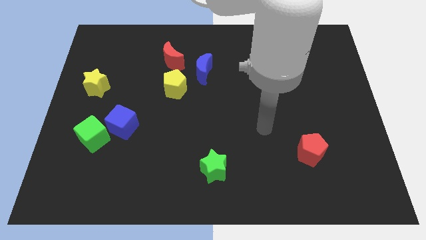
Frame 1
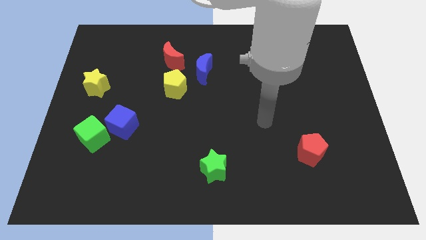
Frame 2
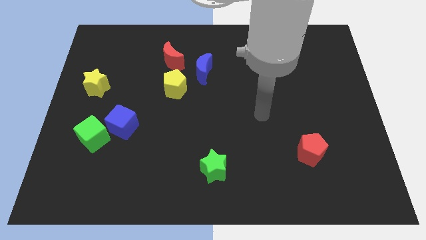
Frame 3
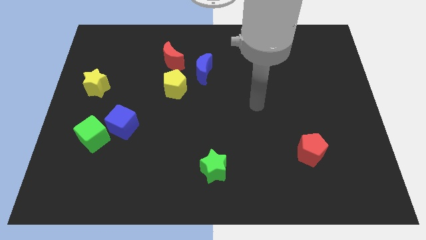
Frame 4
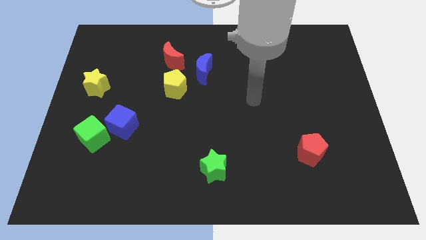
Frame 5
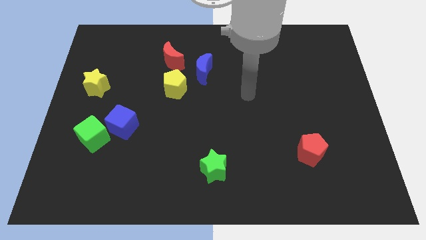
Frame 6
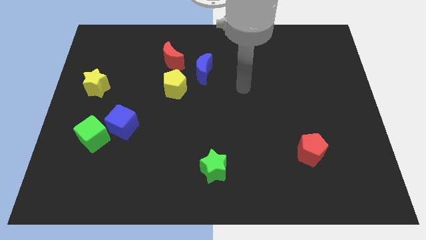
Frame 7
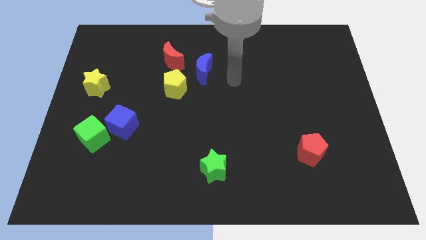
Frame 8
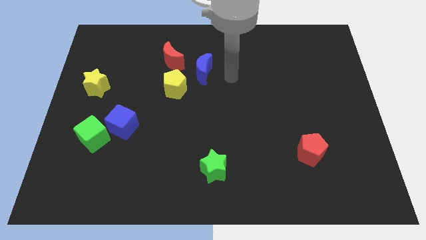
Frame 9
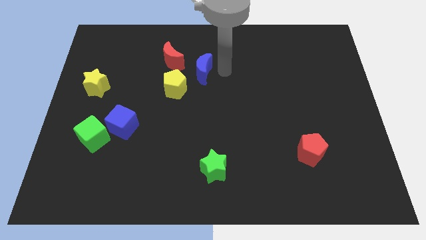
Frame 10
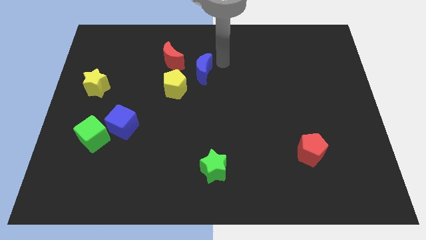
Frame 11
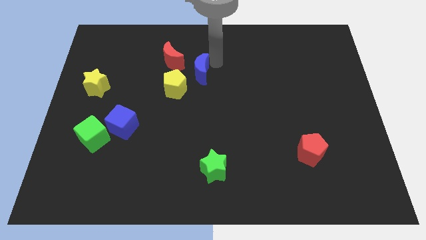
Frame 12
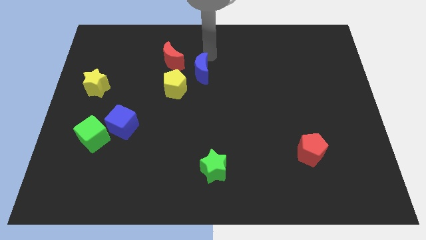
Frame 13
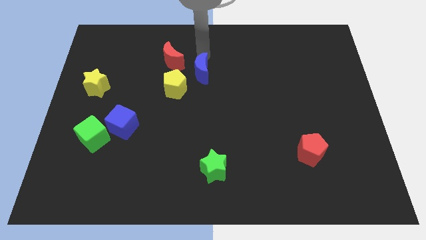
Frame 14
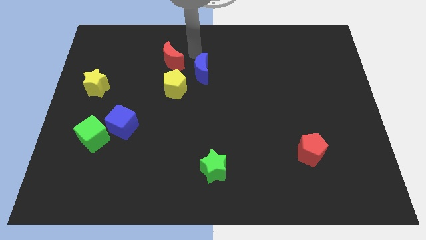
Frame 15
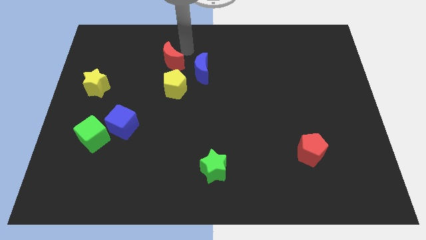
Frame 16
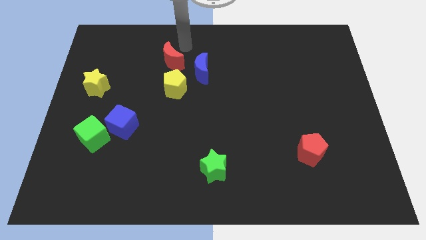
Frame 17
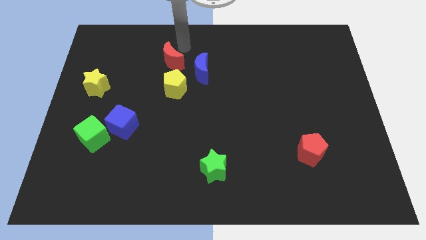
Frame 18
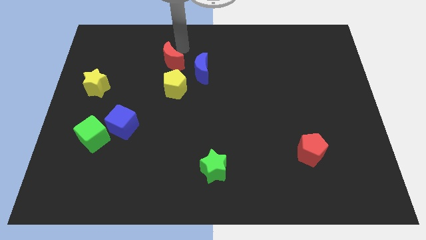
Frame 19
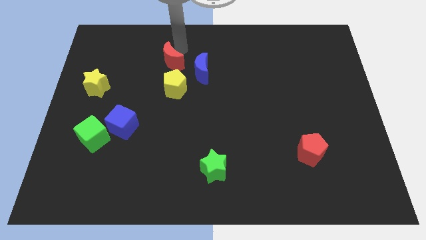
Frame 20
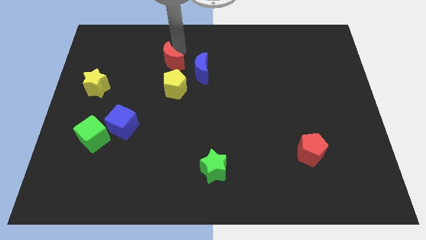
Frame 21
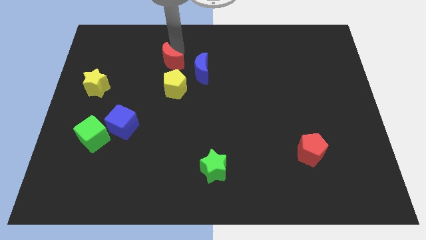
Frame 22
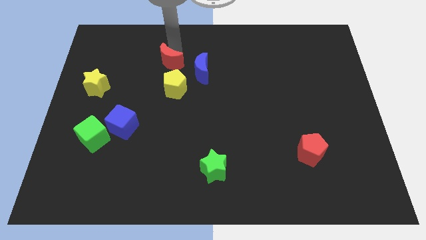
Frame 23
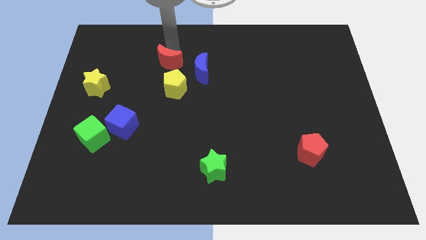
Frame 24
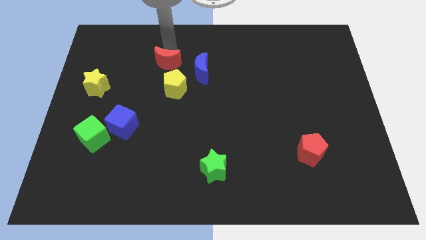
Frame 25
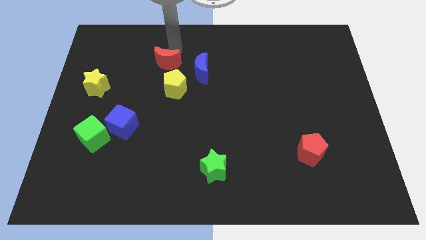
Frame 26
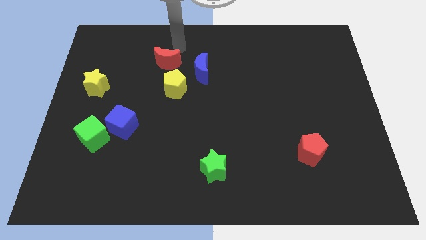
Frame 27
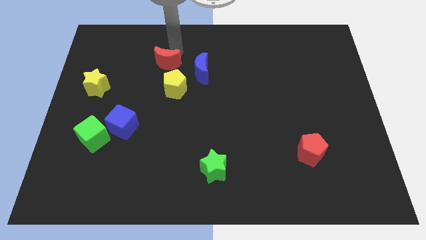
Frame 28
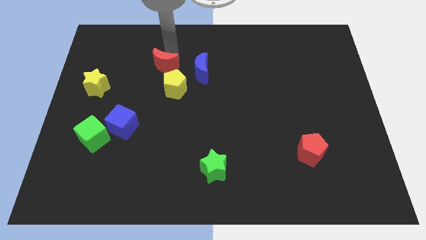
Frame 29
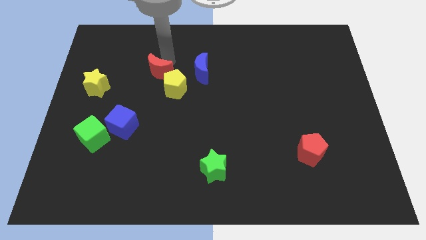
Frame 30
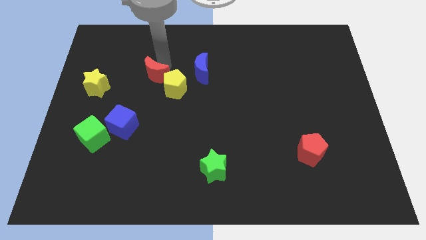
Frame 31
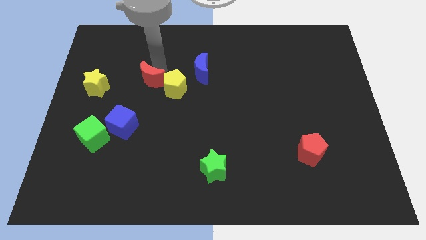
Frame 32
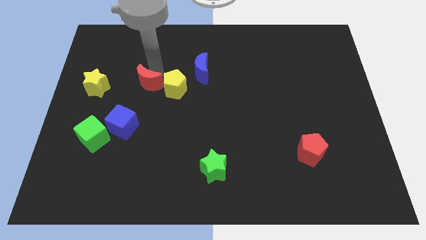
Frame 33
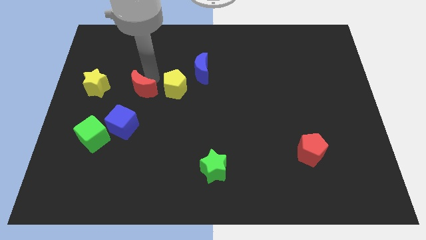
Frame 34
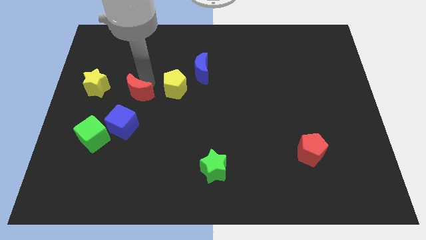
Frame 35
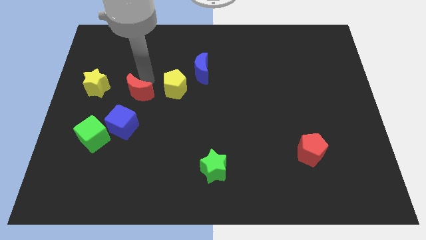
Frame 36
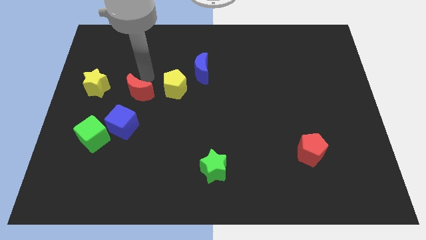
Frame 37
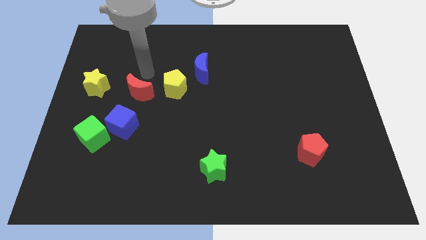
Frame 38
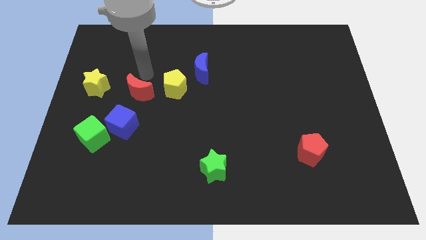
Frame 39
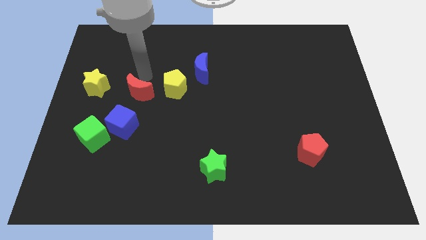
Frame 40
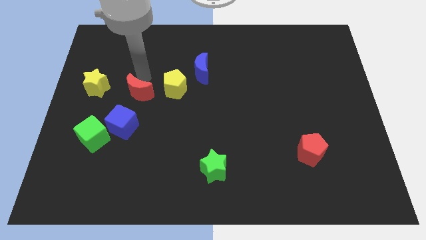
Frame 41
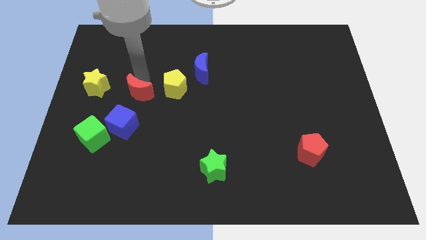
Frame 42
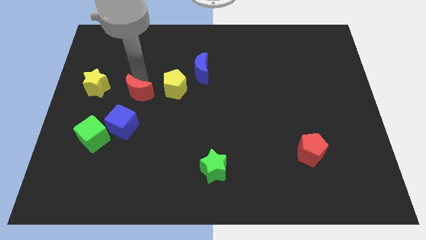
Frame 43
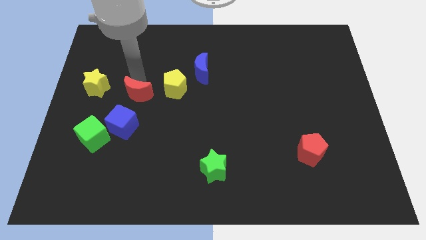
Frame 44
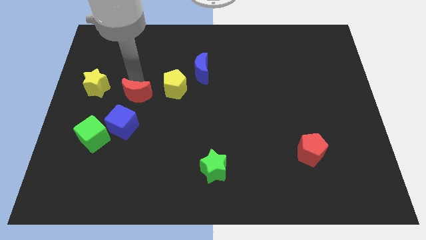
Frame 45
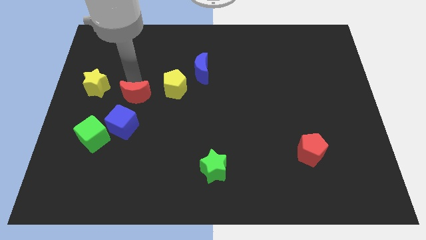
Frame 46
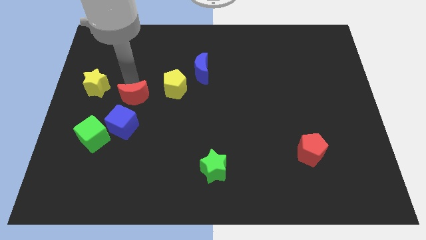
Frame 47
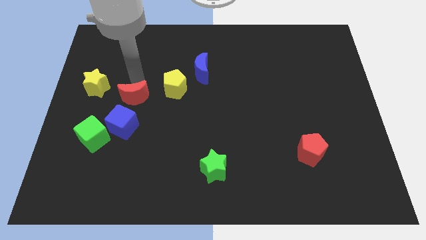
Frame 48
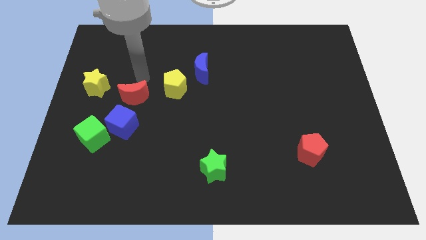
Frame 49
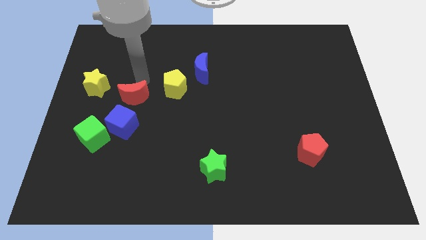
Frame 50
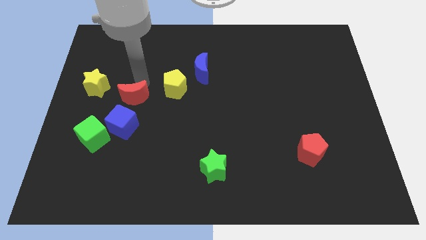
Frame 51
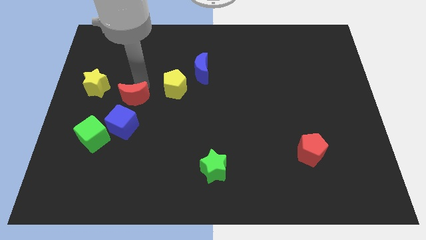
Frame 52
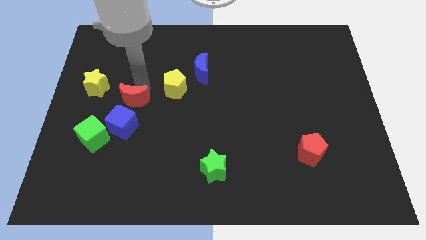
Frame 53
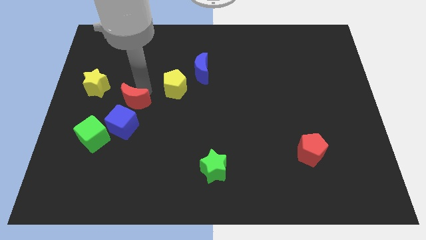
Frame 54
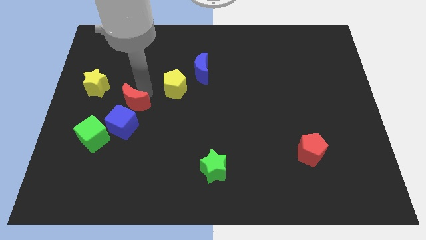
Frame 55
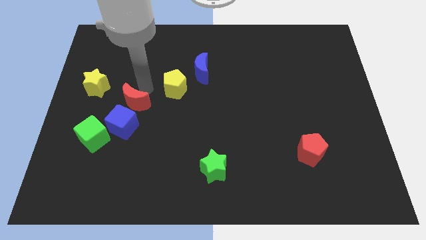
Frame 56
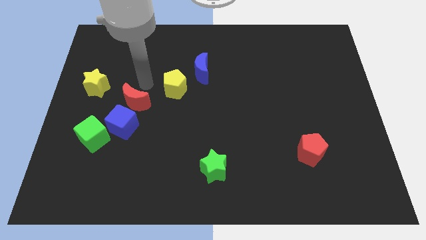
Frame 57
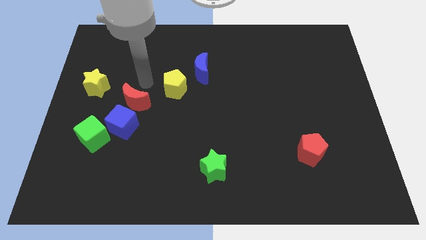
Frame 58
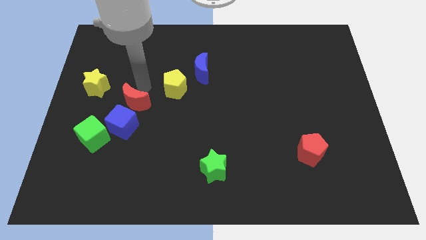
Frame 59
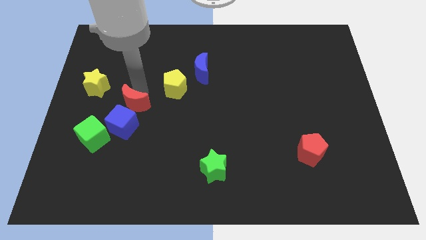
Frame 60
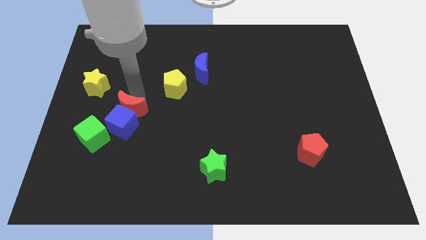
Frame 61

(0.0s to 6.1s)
move the red moon towards the blue cube

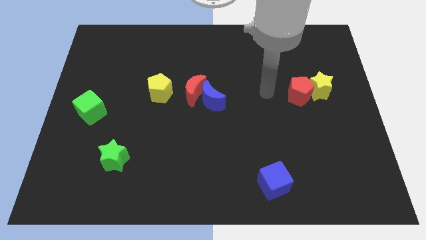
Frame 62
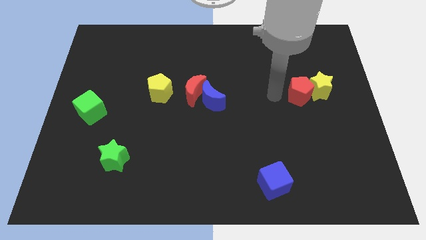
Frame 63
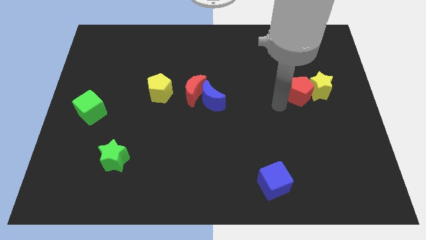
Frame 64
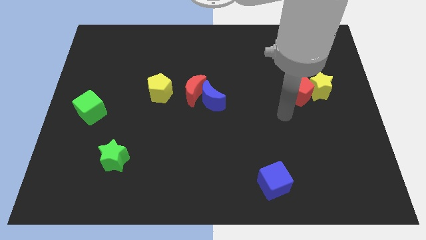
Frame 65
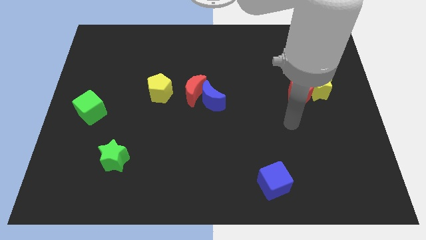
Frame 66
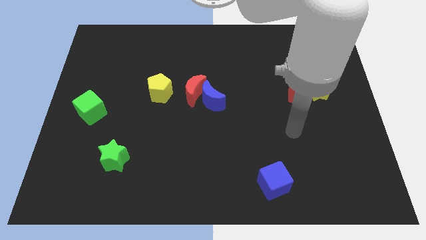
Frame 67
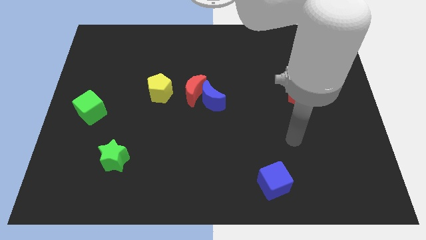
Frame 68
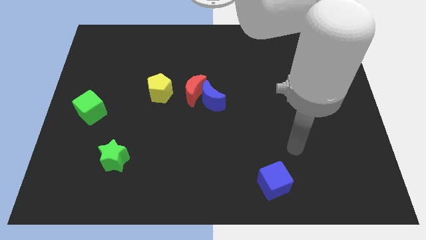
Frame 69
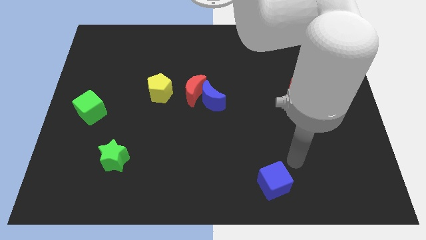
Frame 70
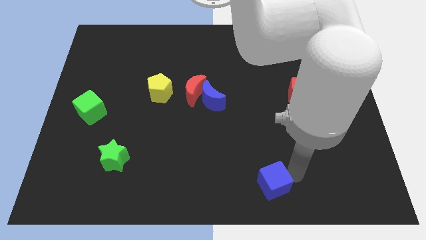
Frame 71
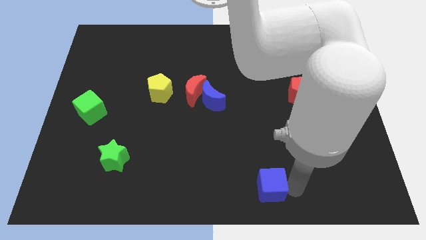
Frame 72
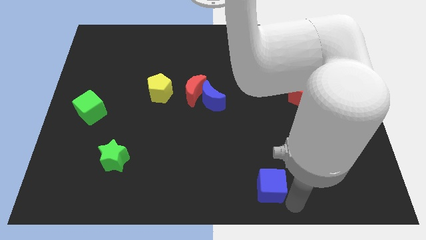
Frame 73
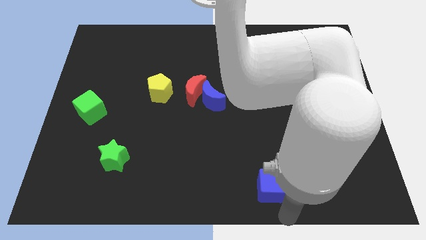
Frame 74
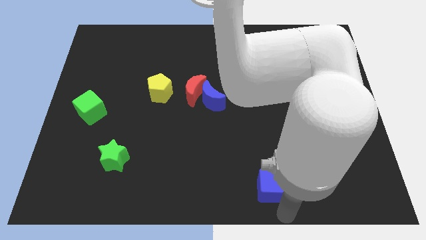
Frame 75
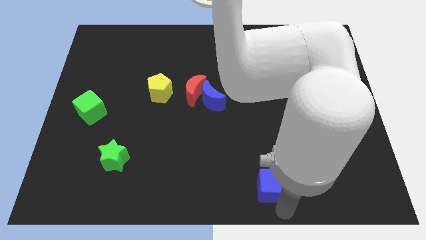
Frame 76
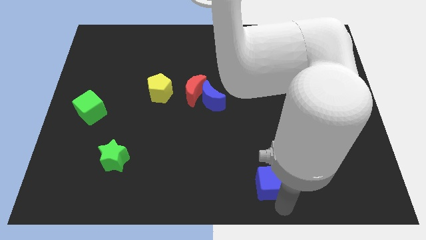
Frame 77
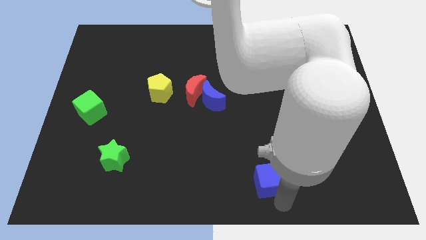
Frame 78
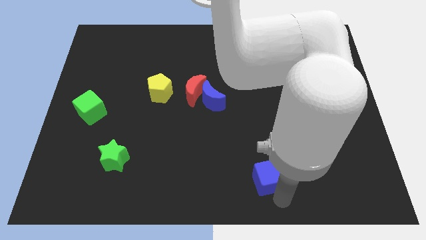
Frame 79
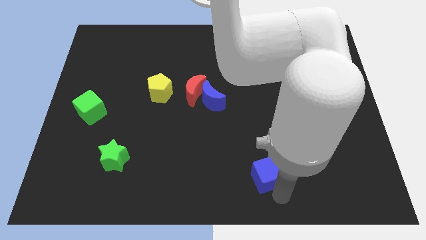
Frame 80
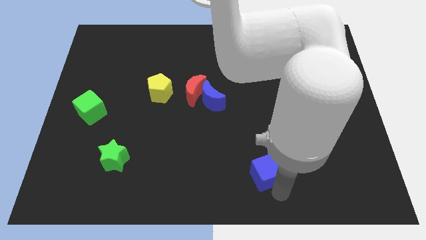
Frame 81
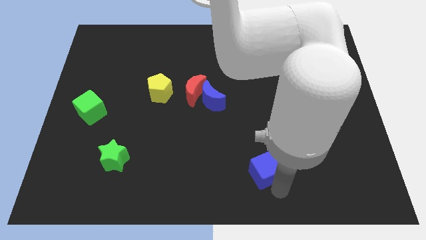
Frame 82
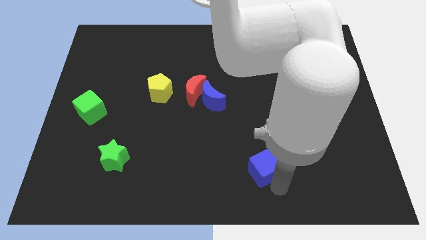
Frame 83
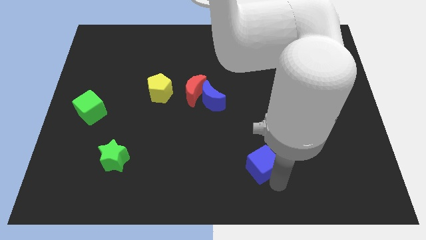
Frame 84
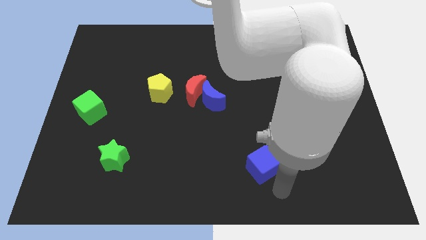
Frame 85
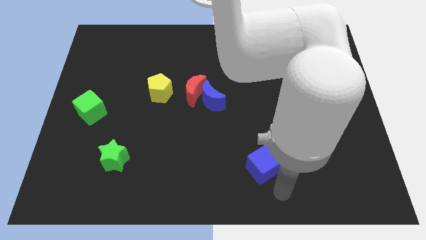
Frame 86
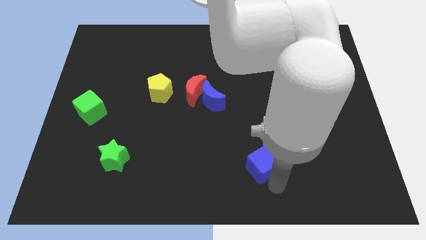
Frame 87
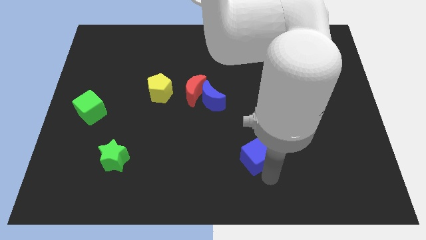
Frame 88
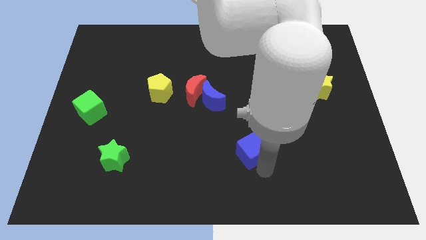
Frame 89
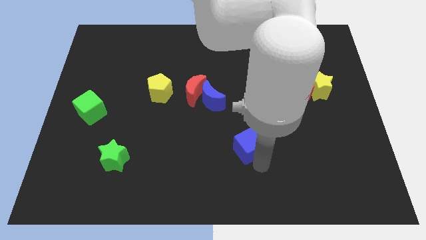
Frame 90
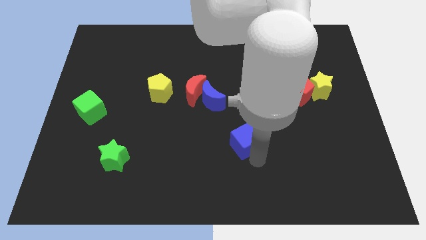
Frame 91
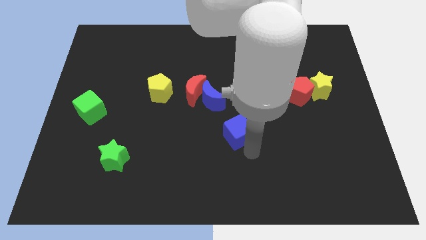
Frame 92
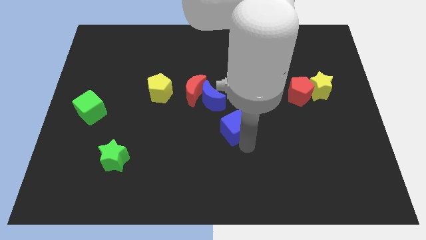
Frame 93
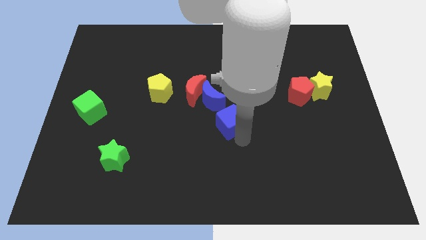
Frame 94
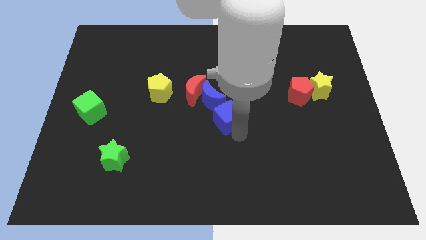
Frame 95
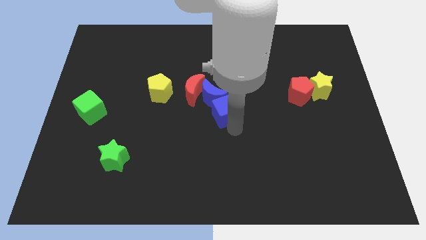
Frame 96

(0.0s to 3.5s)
move the blue cube next to the blue moon
